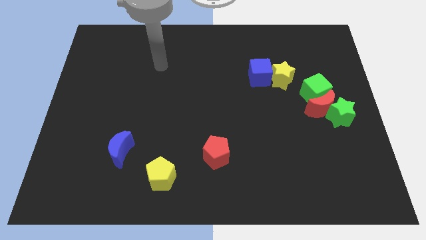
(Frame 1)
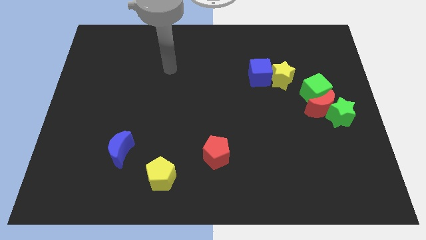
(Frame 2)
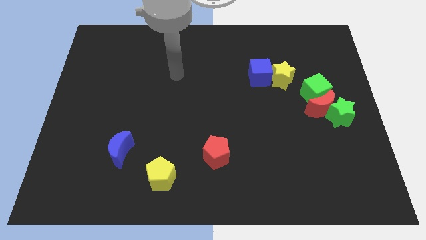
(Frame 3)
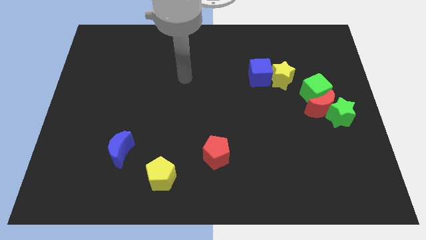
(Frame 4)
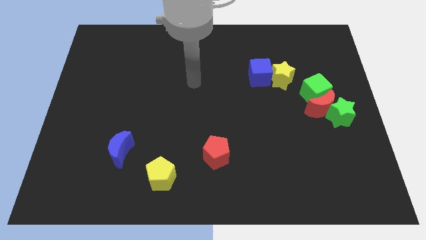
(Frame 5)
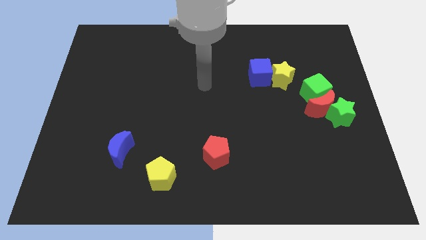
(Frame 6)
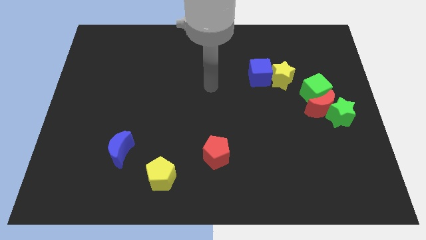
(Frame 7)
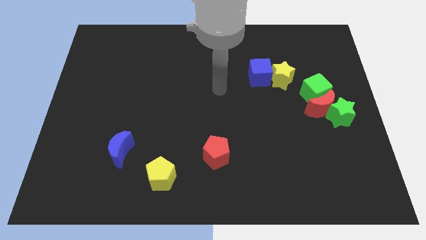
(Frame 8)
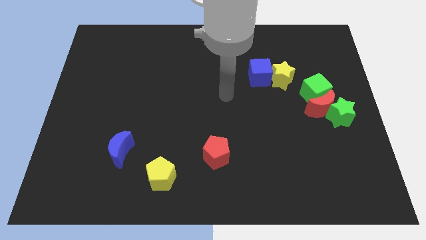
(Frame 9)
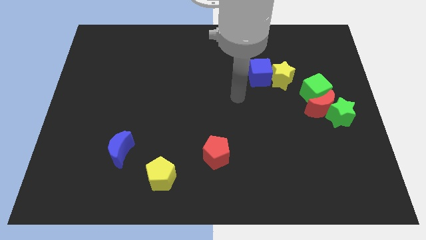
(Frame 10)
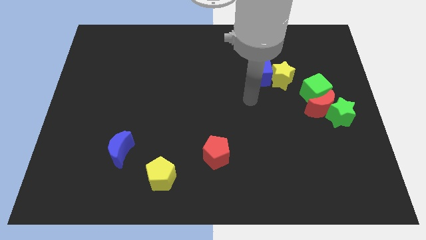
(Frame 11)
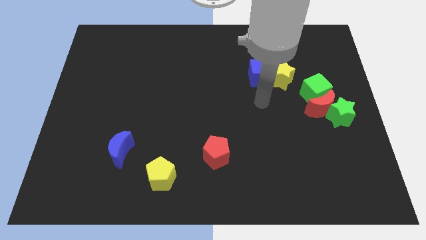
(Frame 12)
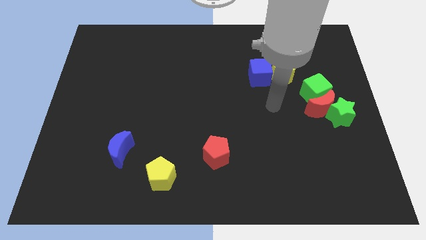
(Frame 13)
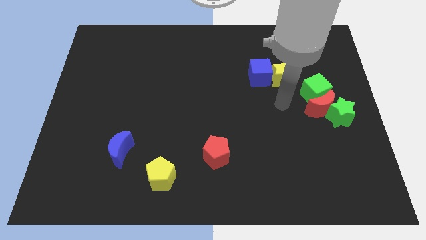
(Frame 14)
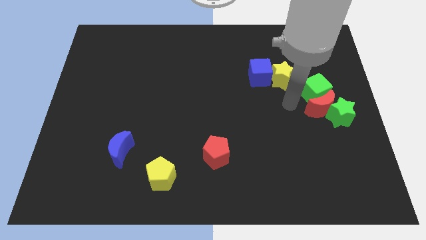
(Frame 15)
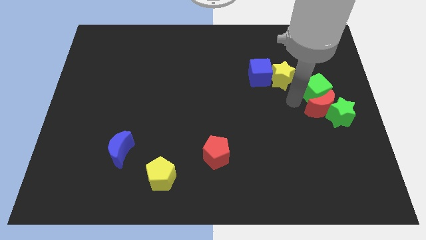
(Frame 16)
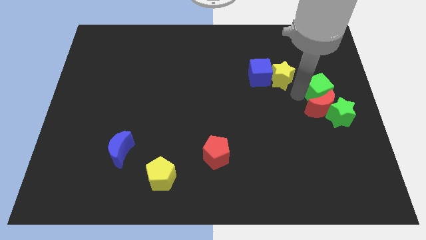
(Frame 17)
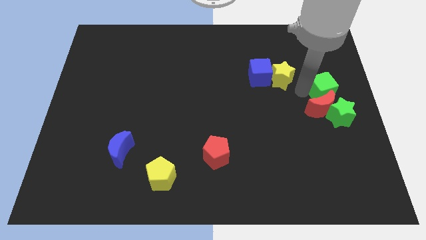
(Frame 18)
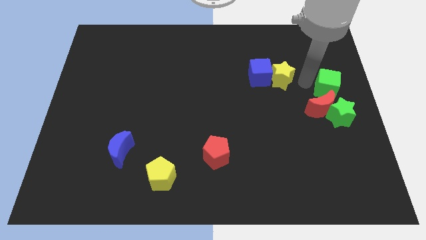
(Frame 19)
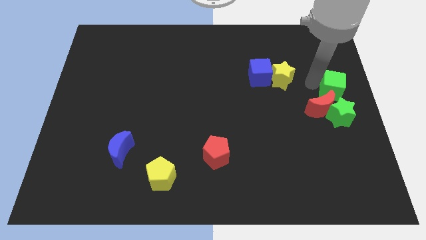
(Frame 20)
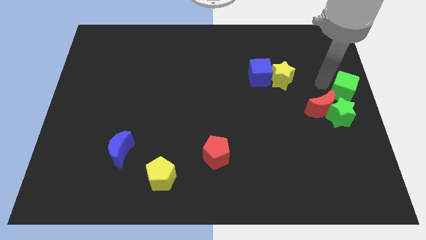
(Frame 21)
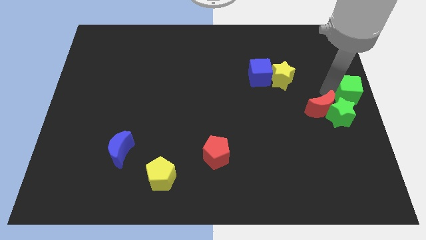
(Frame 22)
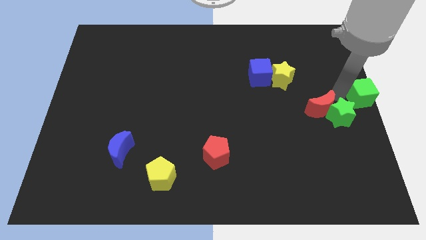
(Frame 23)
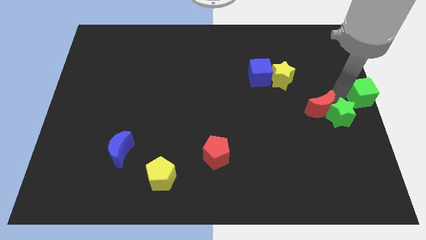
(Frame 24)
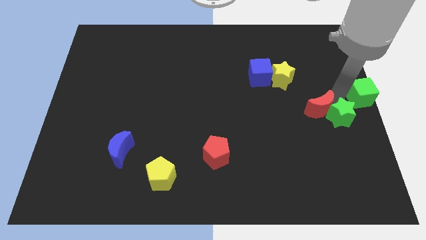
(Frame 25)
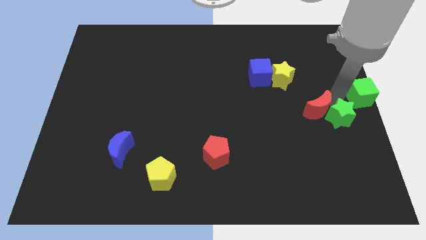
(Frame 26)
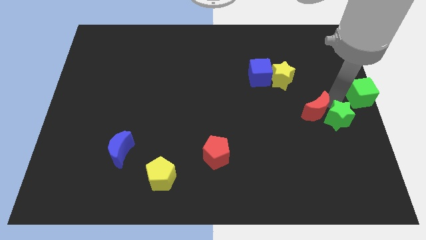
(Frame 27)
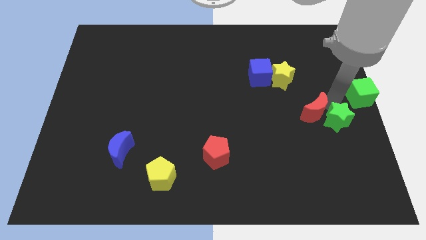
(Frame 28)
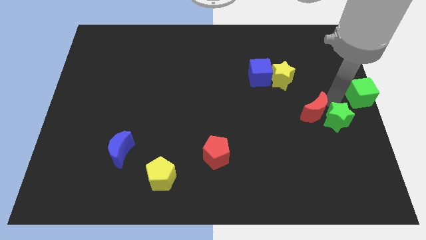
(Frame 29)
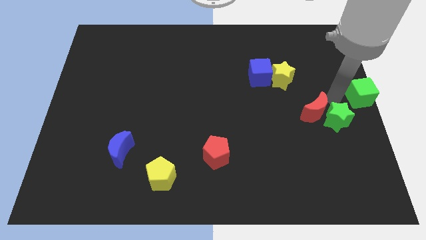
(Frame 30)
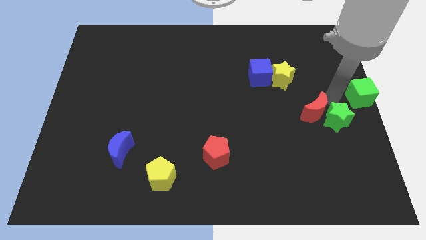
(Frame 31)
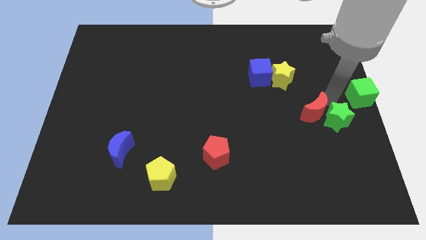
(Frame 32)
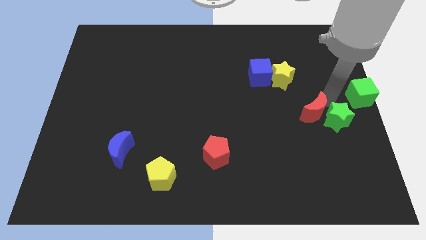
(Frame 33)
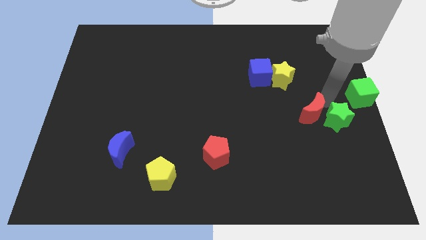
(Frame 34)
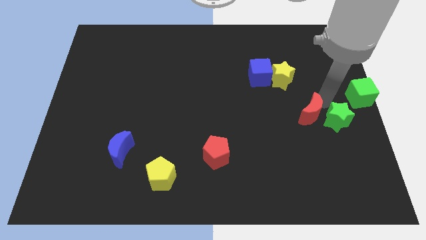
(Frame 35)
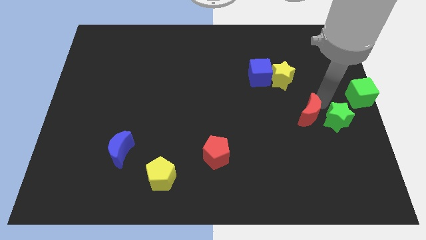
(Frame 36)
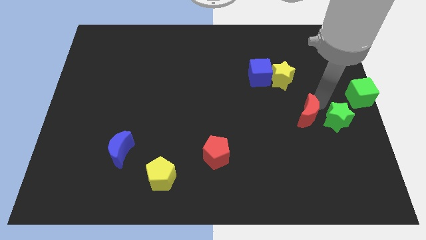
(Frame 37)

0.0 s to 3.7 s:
pull the red moon apart from the green star and green cube

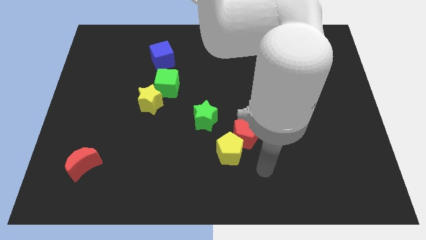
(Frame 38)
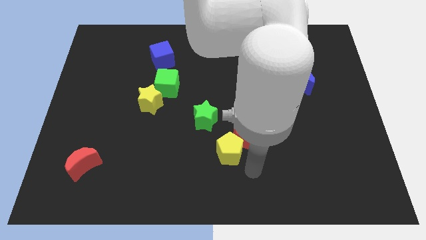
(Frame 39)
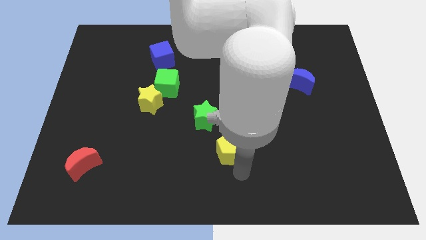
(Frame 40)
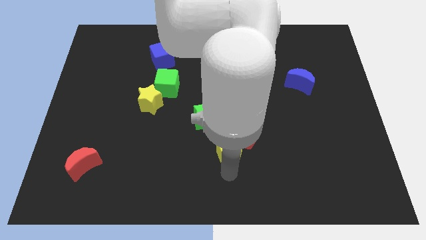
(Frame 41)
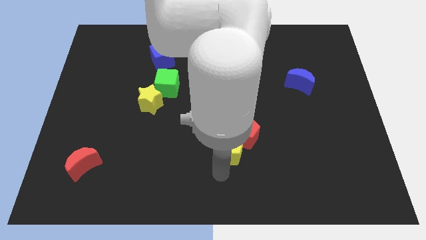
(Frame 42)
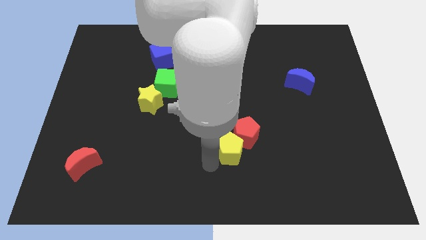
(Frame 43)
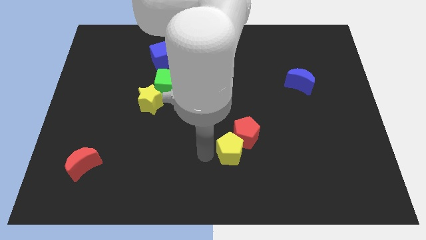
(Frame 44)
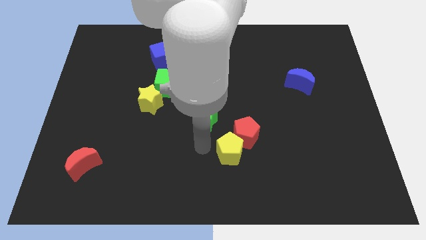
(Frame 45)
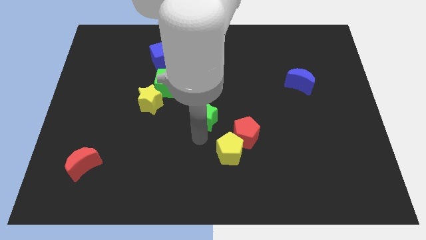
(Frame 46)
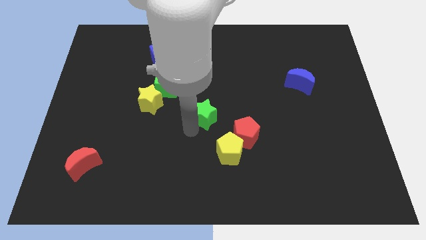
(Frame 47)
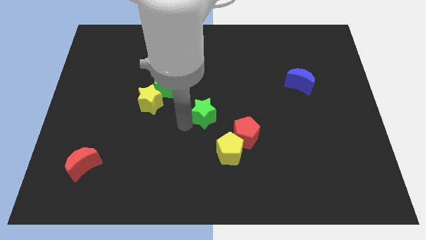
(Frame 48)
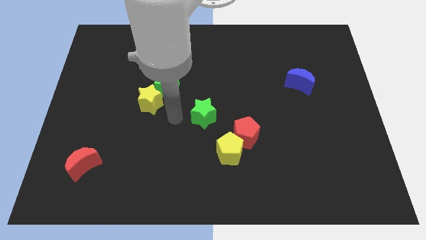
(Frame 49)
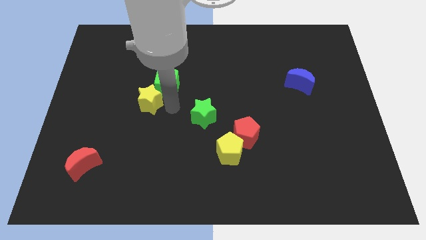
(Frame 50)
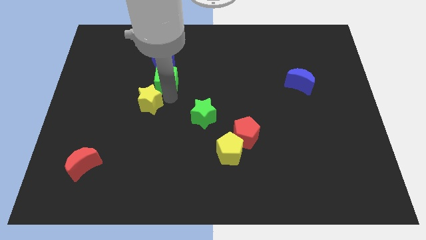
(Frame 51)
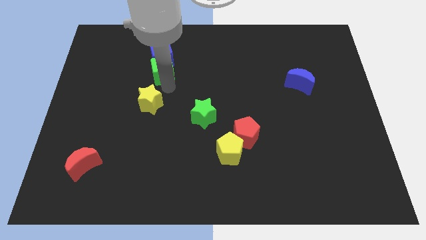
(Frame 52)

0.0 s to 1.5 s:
pull the yellow star apart from the green cube

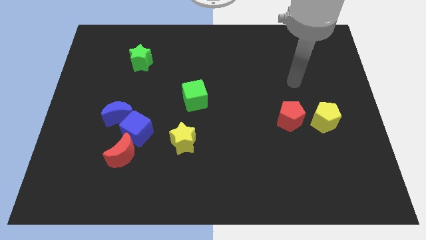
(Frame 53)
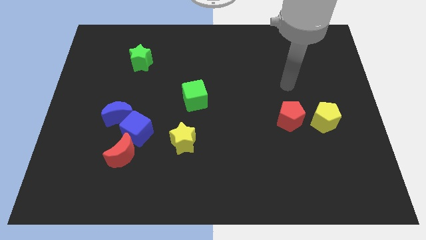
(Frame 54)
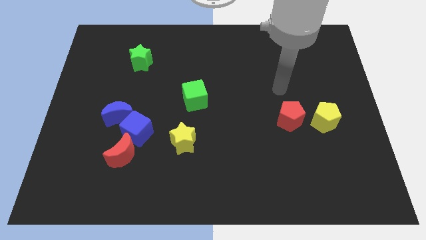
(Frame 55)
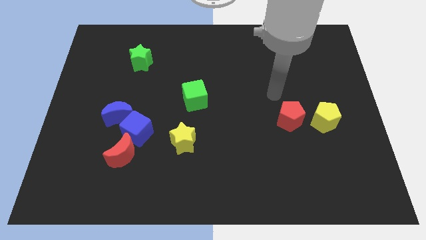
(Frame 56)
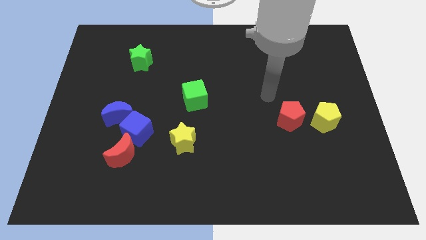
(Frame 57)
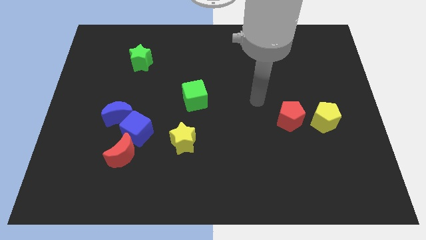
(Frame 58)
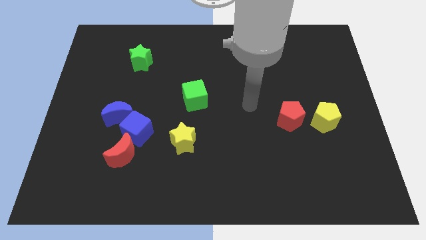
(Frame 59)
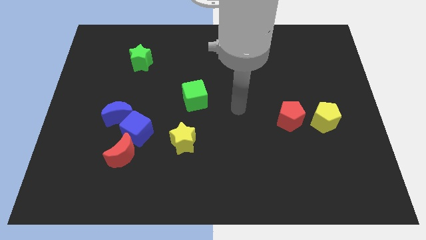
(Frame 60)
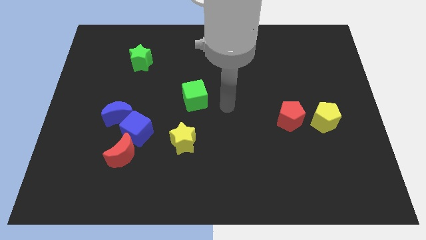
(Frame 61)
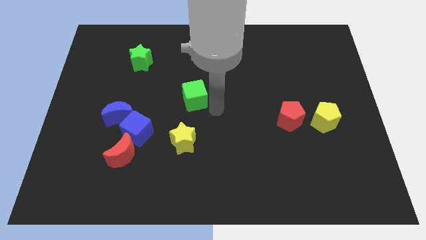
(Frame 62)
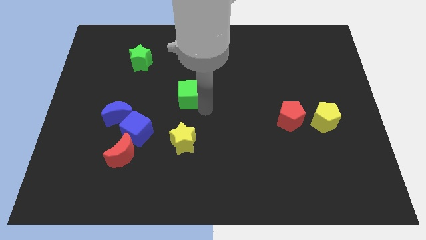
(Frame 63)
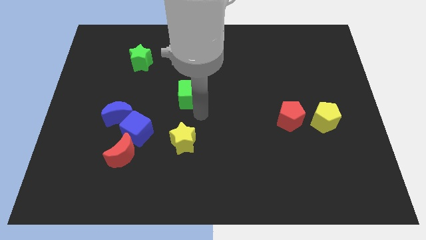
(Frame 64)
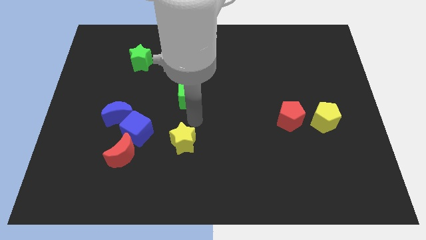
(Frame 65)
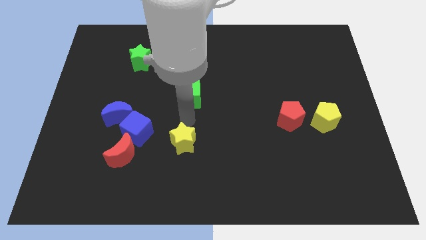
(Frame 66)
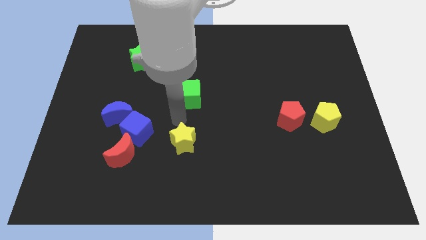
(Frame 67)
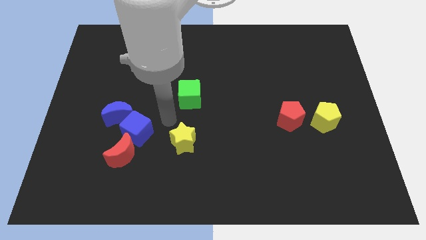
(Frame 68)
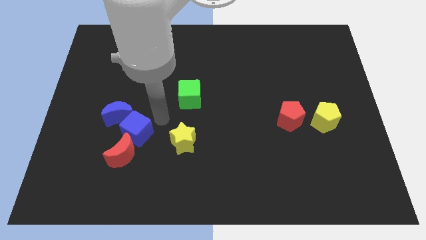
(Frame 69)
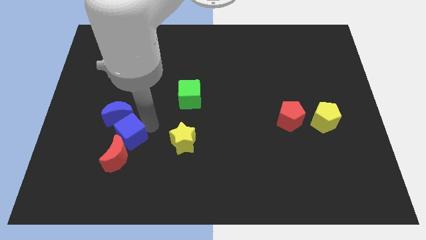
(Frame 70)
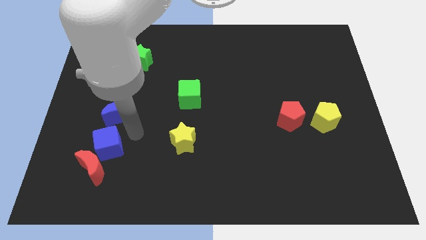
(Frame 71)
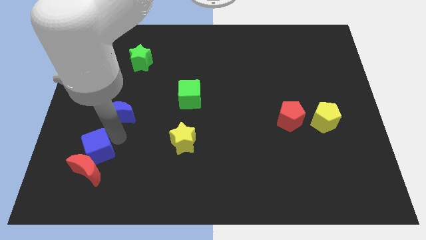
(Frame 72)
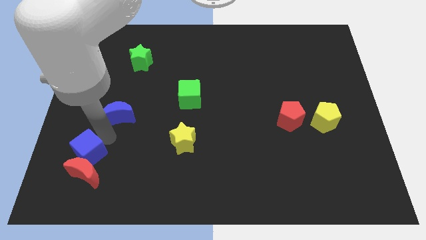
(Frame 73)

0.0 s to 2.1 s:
pull the blue moon apart from the blue cube

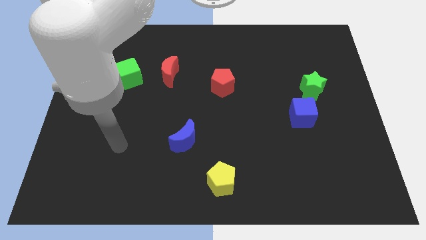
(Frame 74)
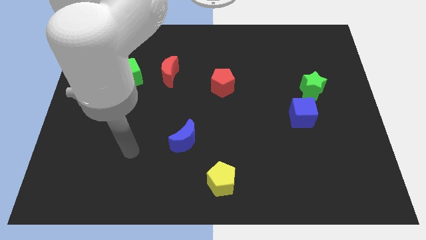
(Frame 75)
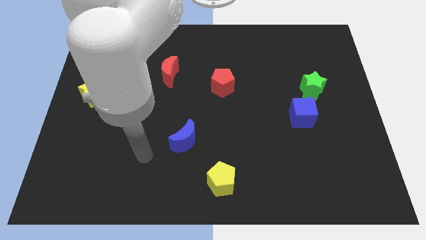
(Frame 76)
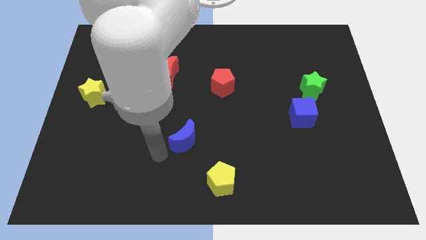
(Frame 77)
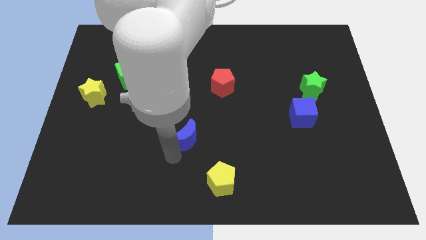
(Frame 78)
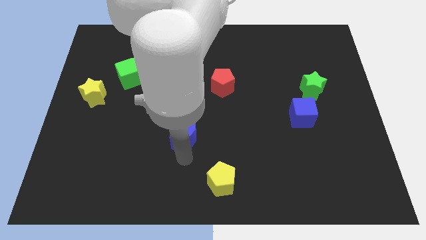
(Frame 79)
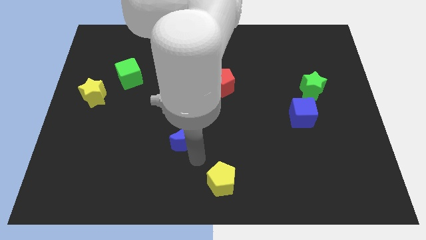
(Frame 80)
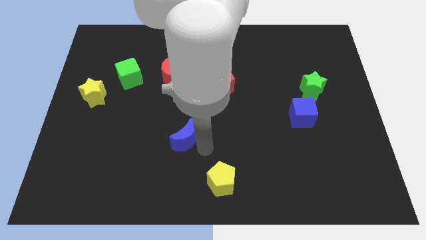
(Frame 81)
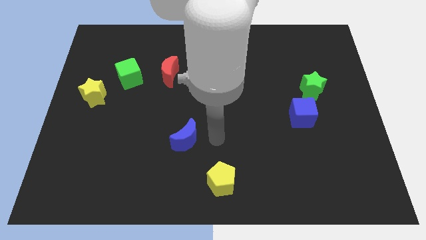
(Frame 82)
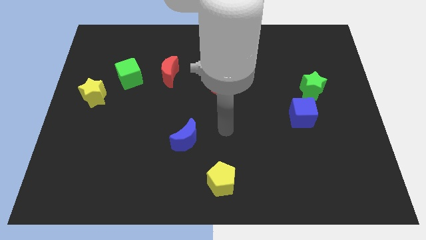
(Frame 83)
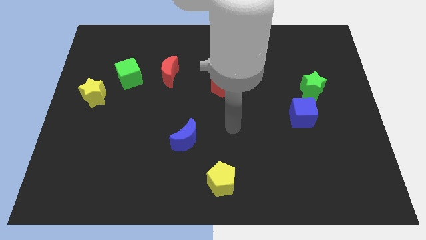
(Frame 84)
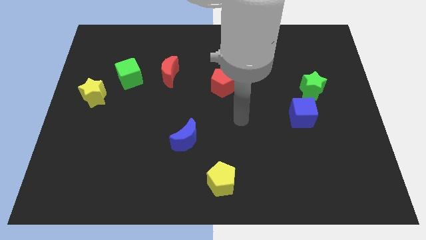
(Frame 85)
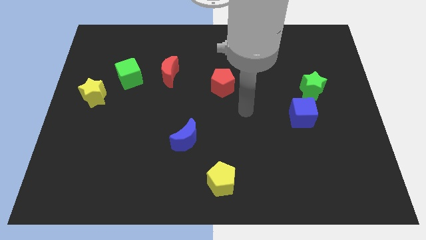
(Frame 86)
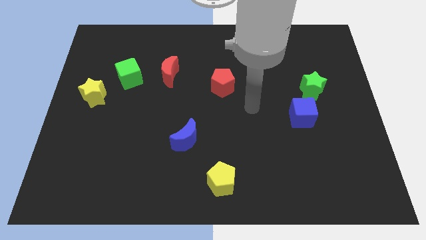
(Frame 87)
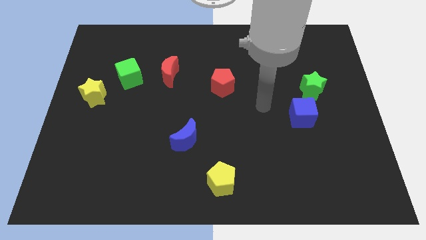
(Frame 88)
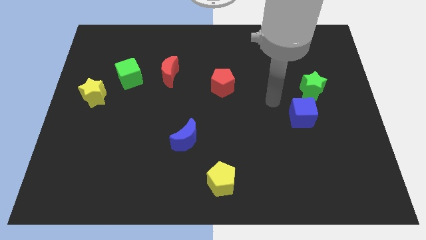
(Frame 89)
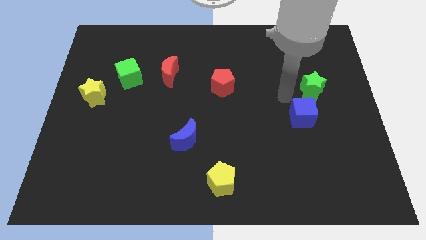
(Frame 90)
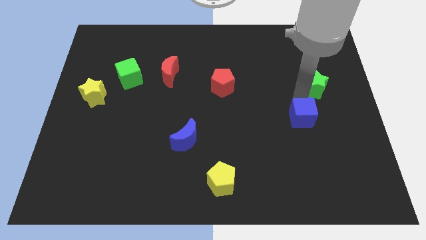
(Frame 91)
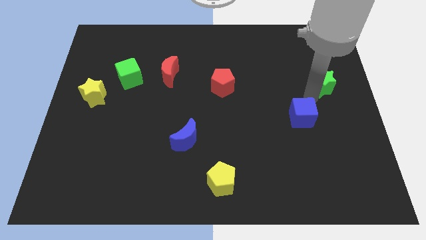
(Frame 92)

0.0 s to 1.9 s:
move the blue cube away from the green star

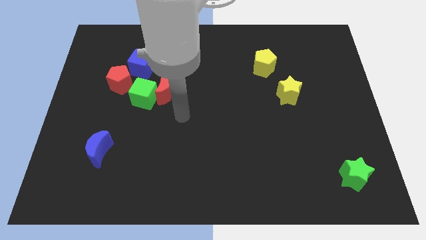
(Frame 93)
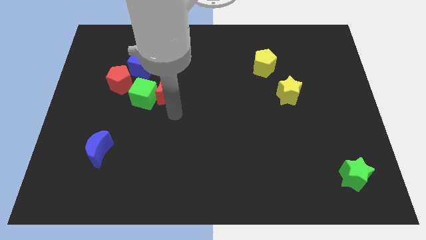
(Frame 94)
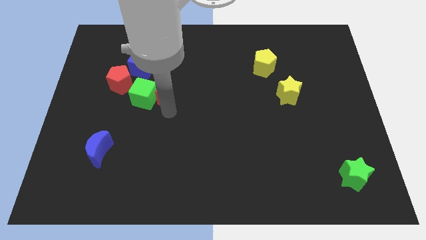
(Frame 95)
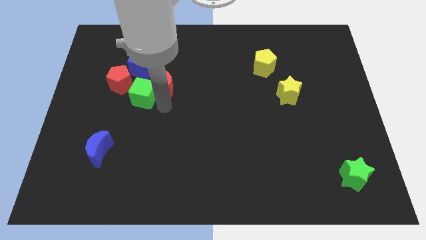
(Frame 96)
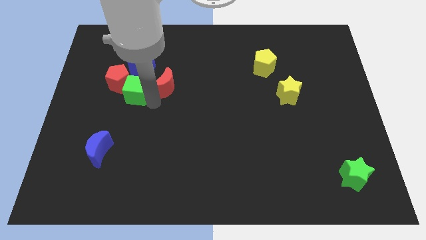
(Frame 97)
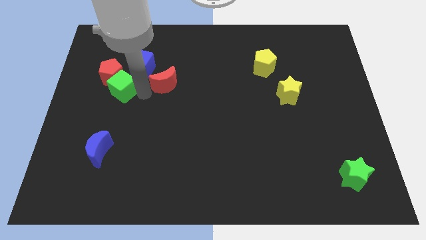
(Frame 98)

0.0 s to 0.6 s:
move the red moon away from the green cube
